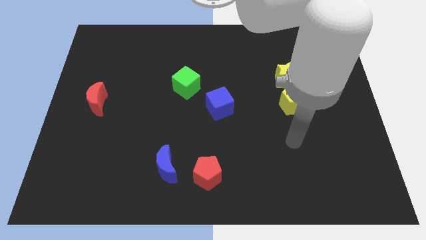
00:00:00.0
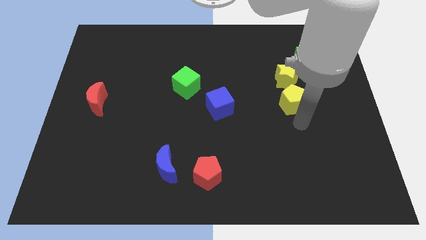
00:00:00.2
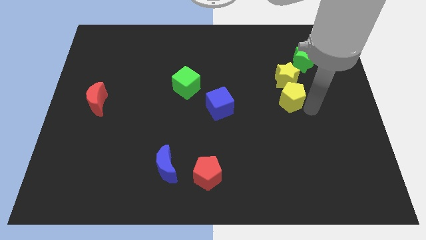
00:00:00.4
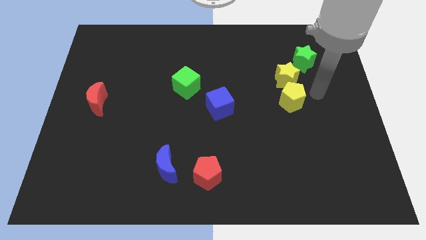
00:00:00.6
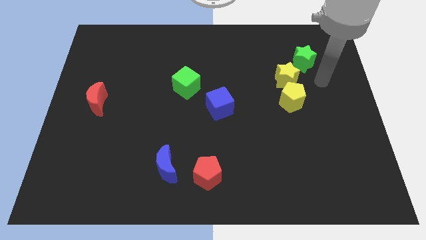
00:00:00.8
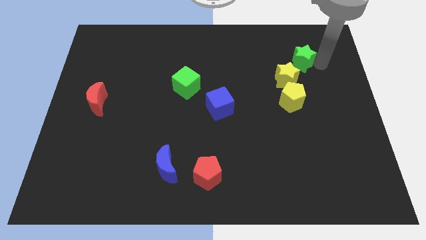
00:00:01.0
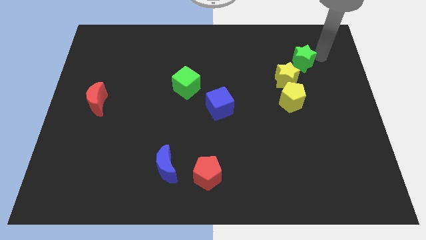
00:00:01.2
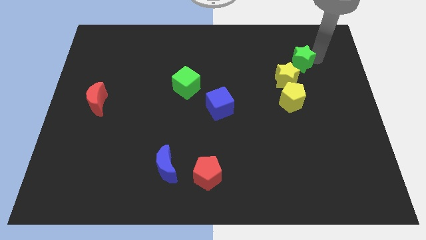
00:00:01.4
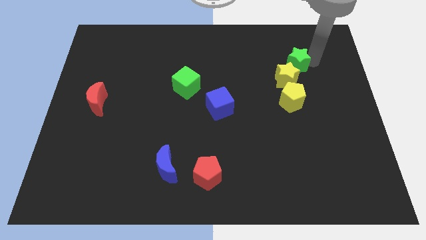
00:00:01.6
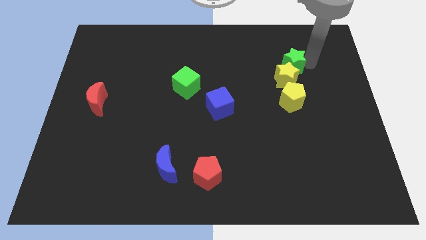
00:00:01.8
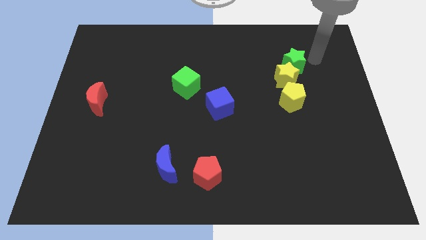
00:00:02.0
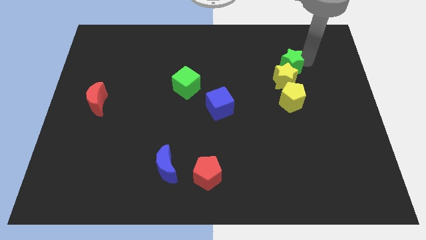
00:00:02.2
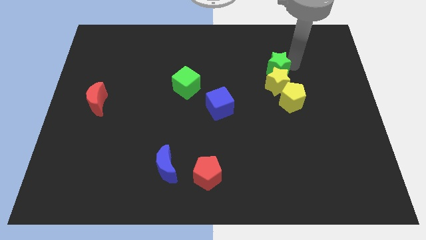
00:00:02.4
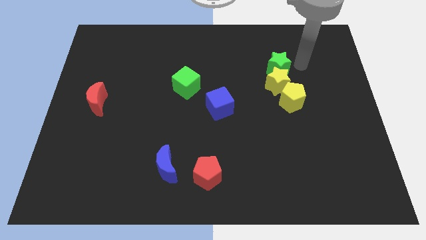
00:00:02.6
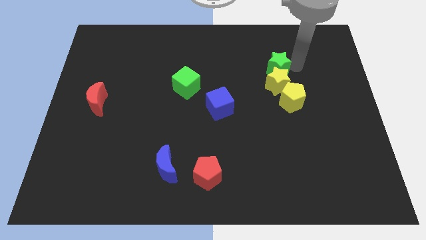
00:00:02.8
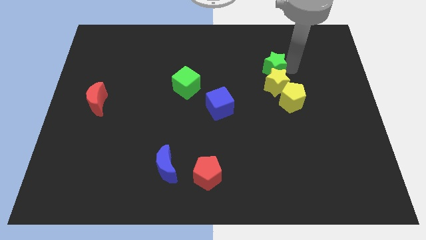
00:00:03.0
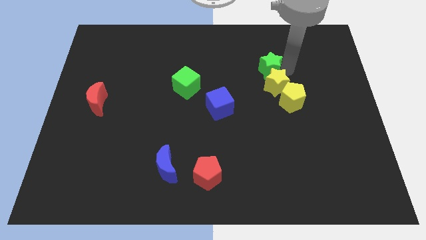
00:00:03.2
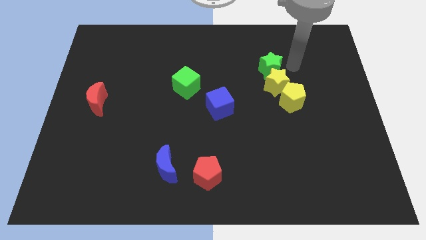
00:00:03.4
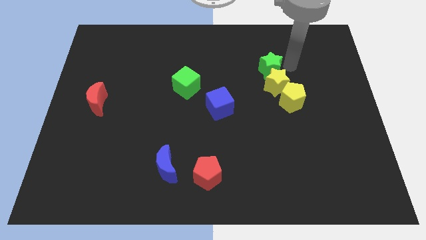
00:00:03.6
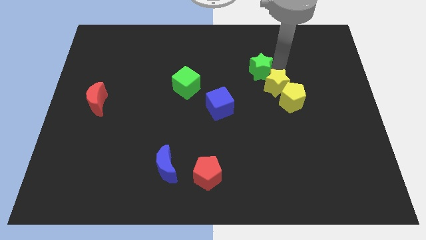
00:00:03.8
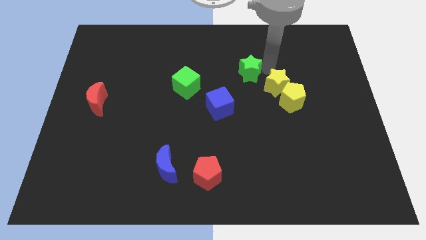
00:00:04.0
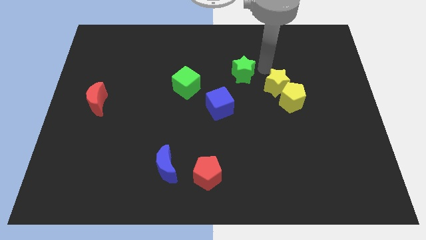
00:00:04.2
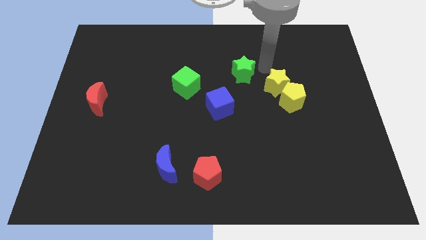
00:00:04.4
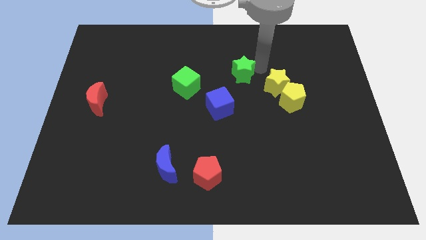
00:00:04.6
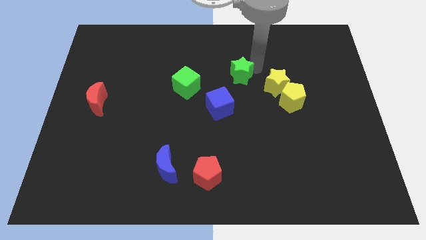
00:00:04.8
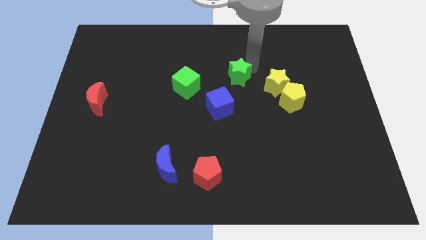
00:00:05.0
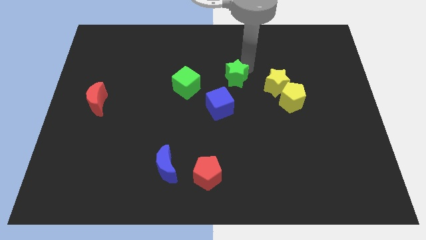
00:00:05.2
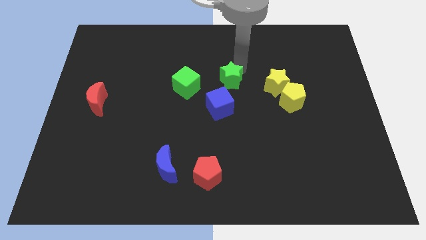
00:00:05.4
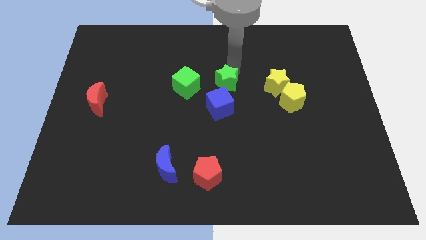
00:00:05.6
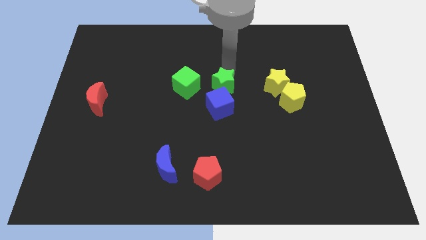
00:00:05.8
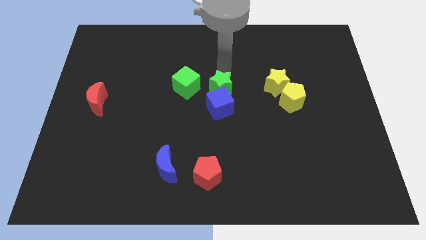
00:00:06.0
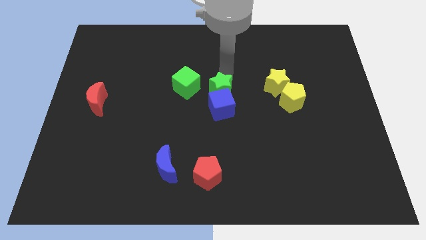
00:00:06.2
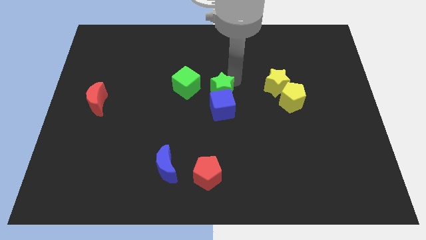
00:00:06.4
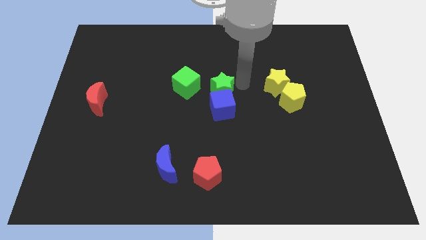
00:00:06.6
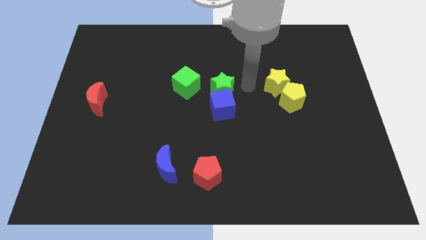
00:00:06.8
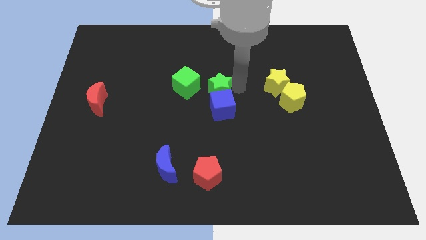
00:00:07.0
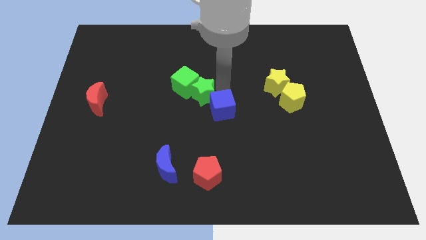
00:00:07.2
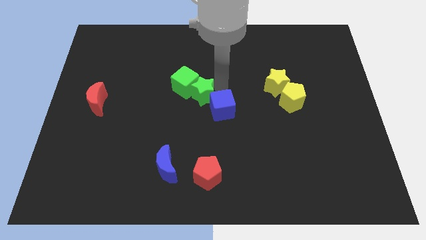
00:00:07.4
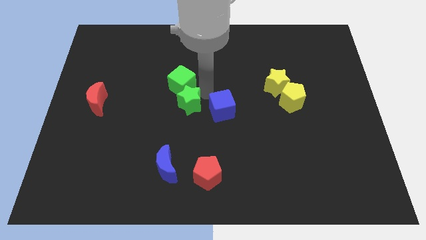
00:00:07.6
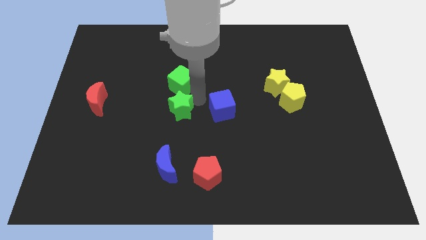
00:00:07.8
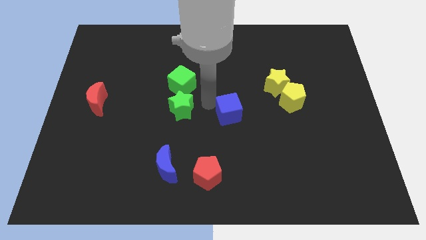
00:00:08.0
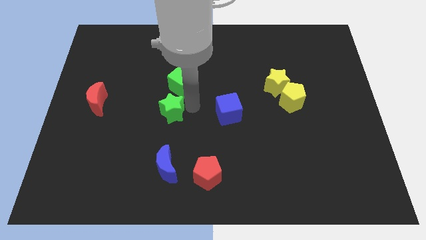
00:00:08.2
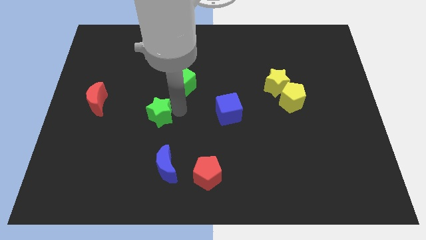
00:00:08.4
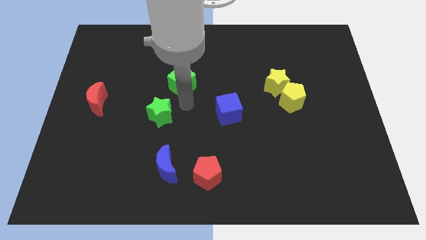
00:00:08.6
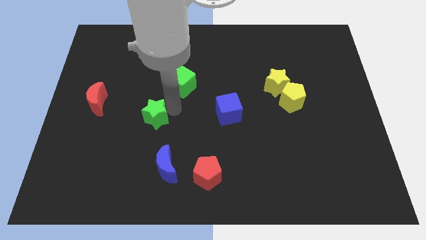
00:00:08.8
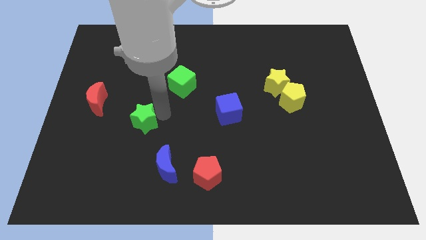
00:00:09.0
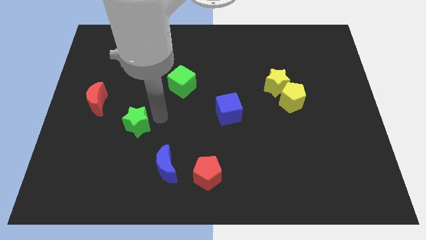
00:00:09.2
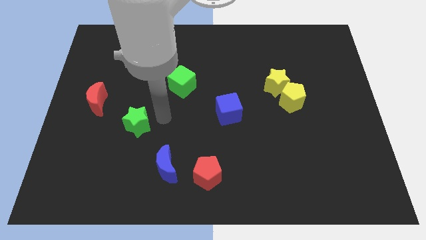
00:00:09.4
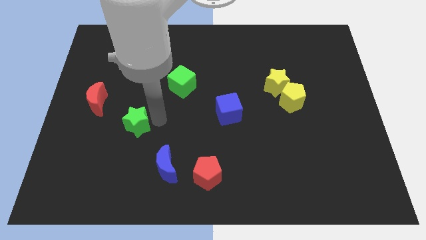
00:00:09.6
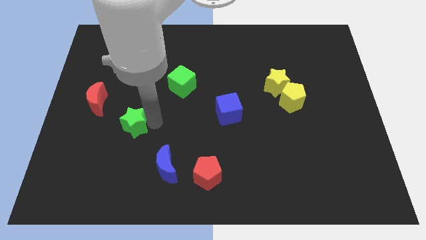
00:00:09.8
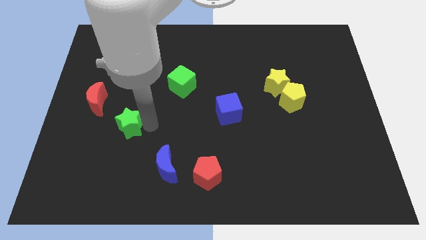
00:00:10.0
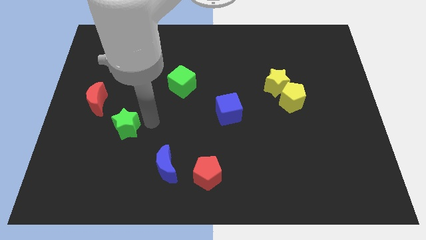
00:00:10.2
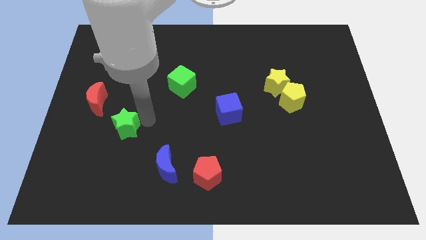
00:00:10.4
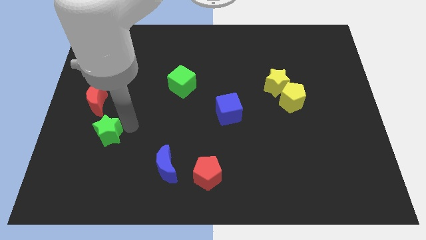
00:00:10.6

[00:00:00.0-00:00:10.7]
push the green star below the red moon

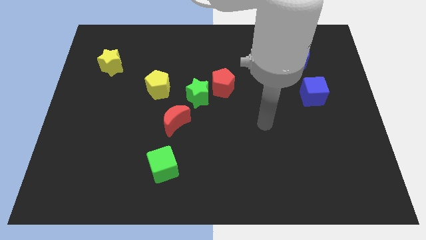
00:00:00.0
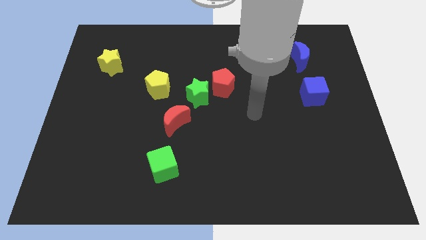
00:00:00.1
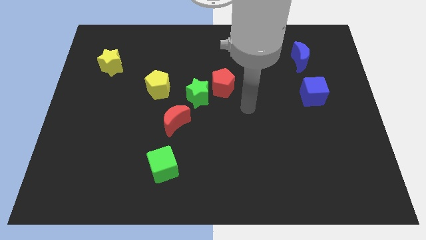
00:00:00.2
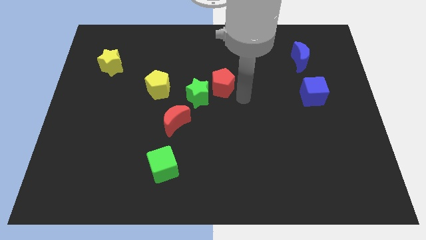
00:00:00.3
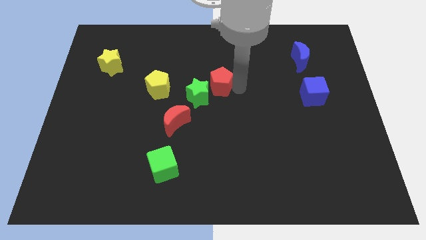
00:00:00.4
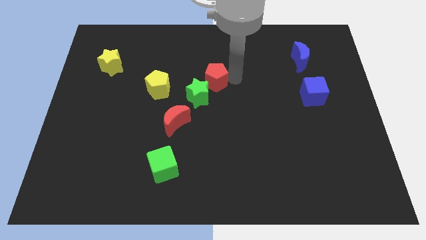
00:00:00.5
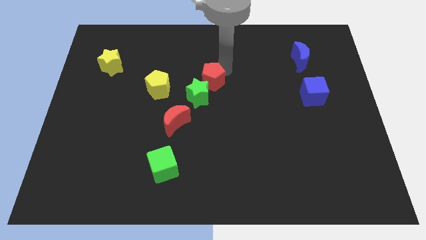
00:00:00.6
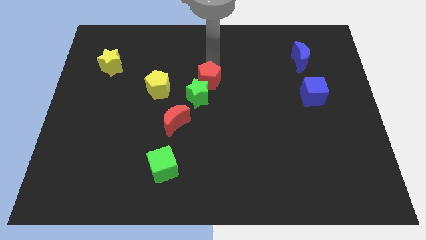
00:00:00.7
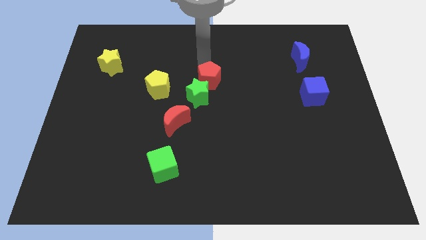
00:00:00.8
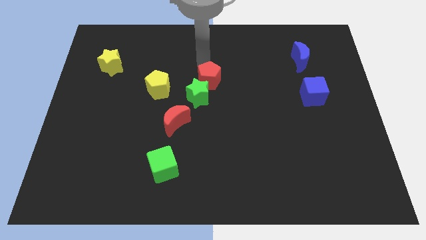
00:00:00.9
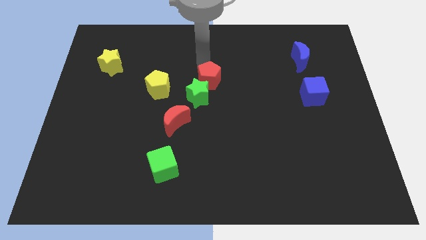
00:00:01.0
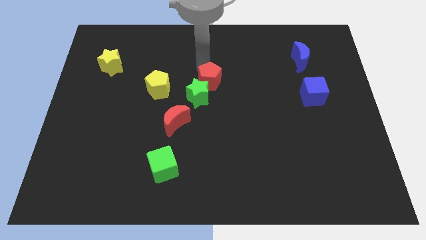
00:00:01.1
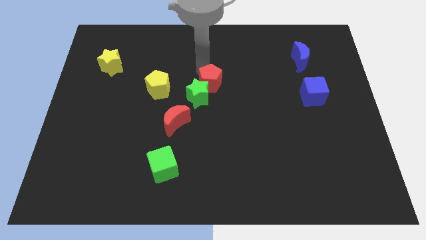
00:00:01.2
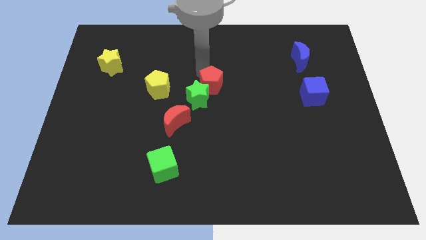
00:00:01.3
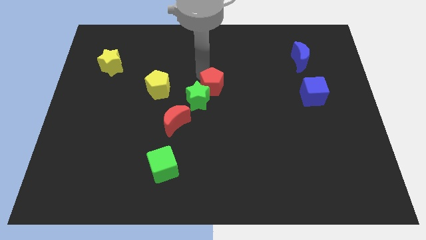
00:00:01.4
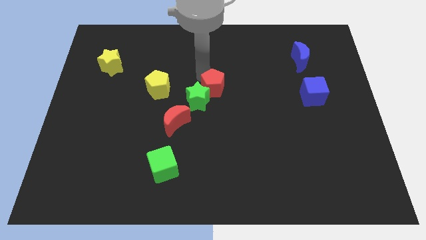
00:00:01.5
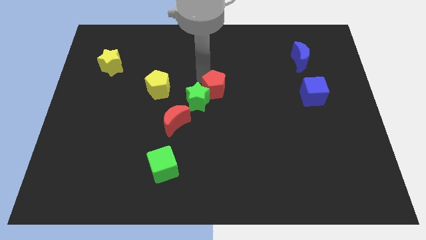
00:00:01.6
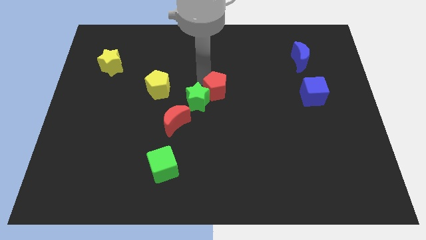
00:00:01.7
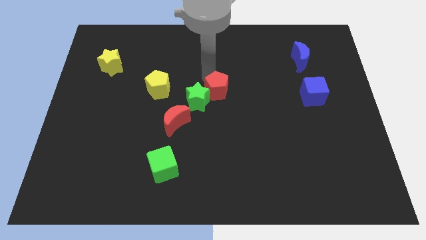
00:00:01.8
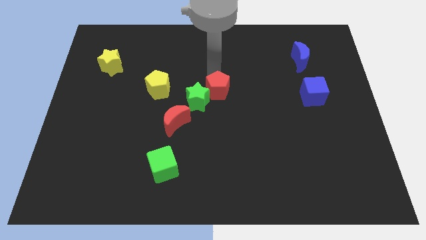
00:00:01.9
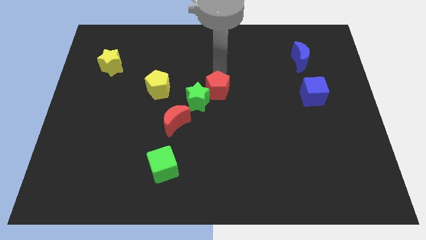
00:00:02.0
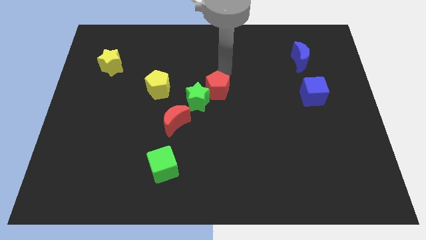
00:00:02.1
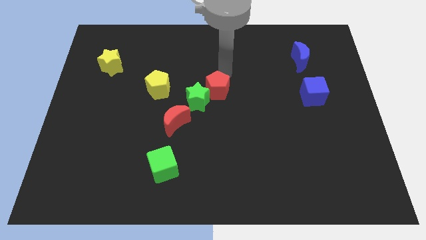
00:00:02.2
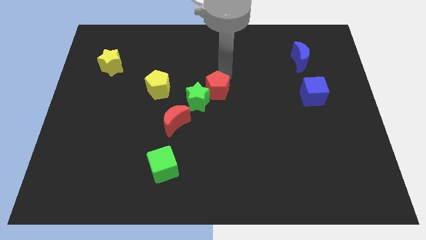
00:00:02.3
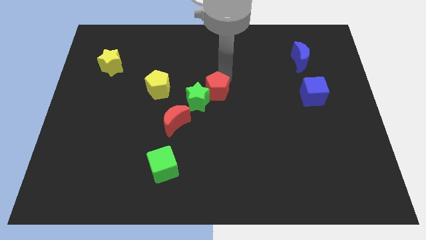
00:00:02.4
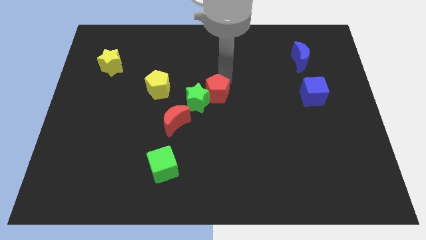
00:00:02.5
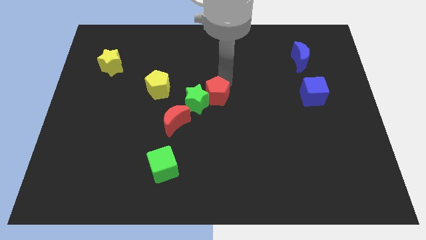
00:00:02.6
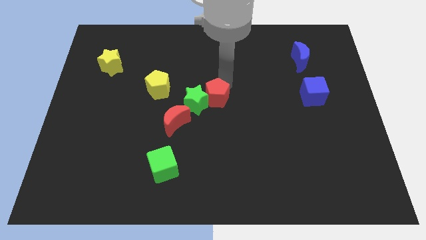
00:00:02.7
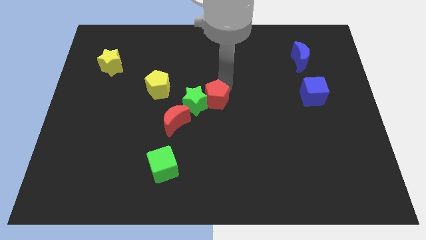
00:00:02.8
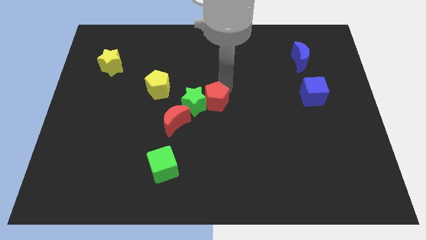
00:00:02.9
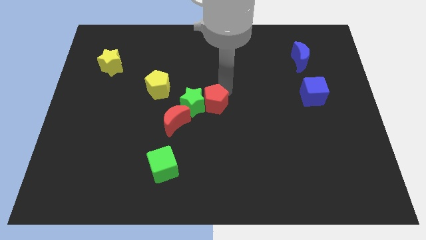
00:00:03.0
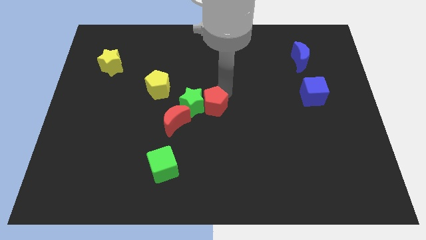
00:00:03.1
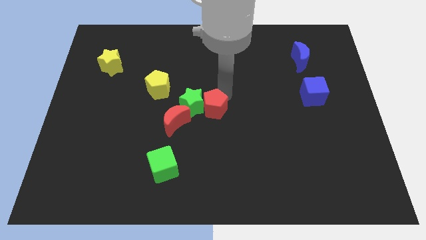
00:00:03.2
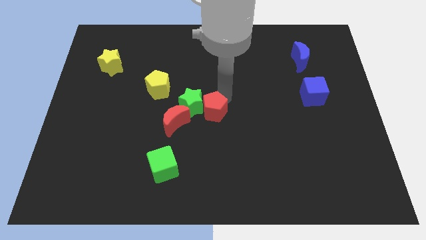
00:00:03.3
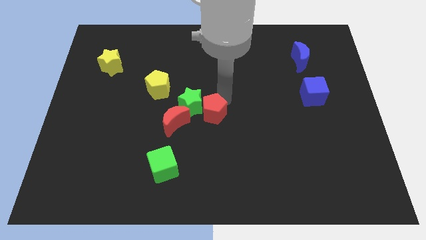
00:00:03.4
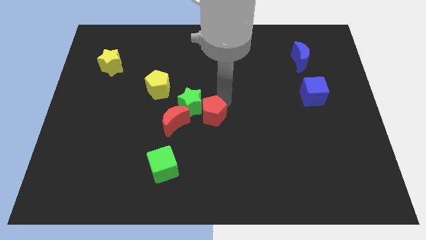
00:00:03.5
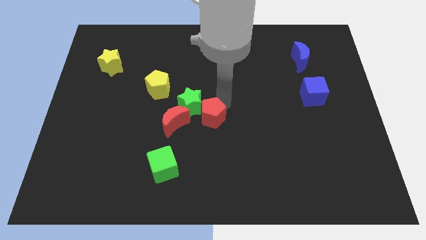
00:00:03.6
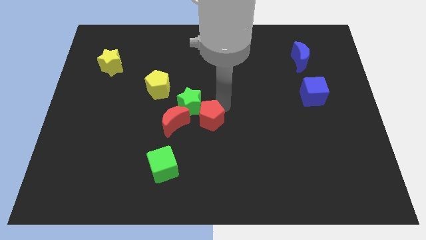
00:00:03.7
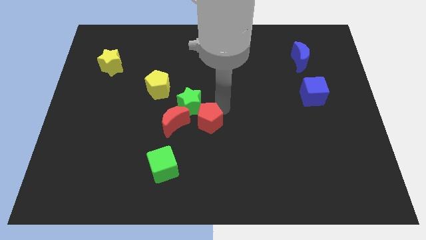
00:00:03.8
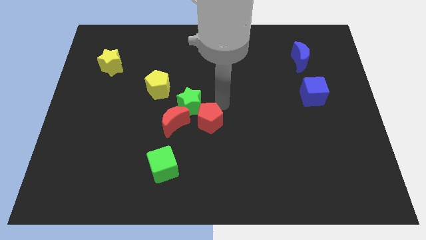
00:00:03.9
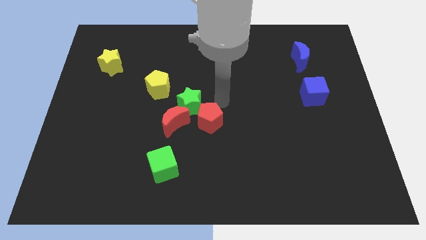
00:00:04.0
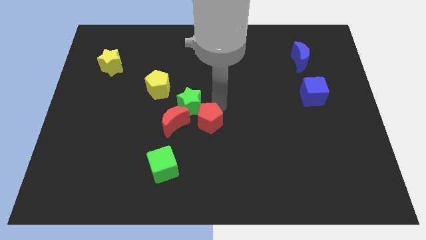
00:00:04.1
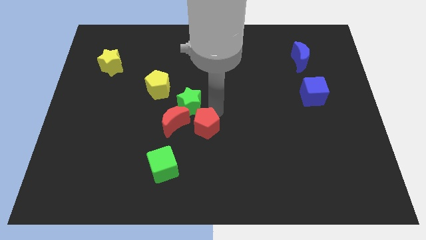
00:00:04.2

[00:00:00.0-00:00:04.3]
slide the red pentagon to the bottom right of the red moon
